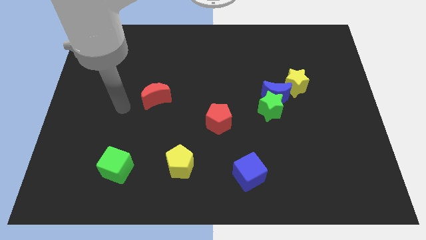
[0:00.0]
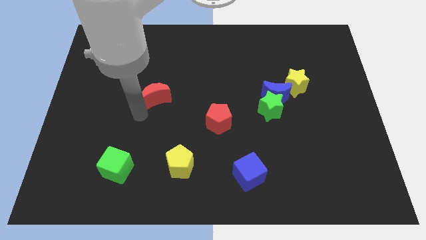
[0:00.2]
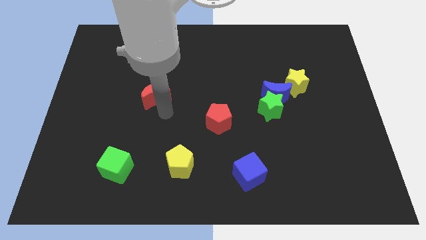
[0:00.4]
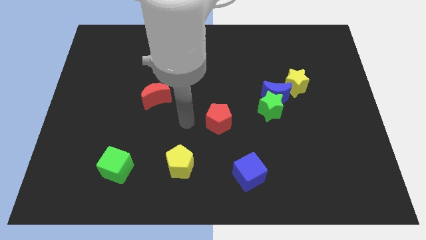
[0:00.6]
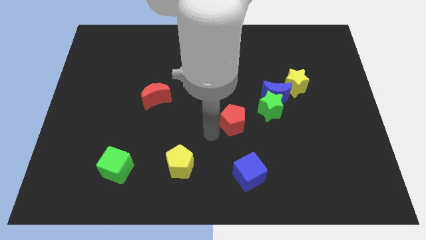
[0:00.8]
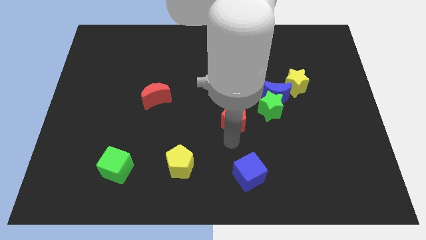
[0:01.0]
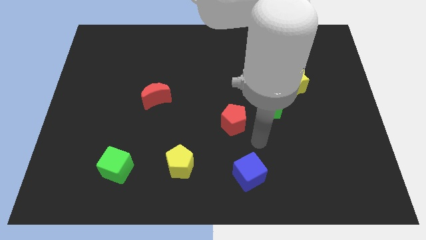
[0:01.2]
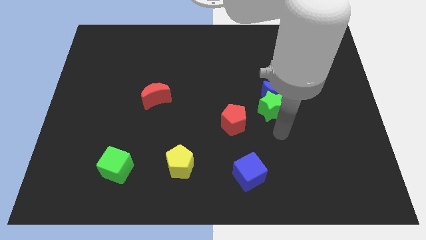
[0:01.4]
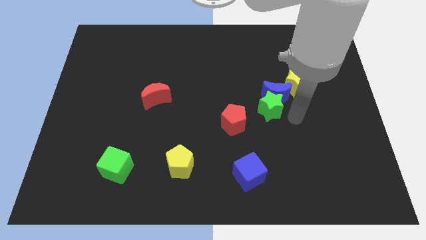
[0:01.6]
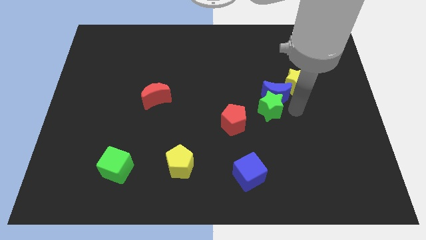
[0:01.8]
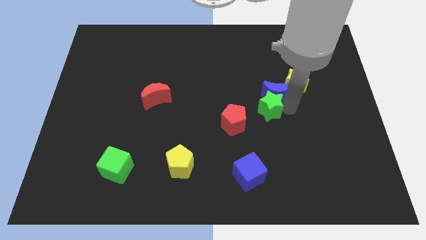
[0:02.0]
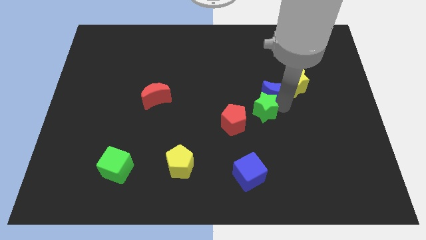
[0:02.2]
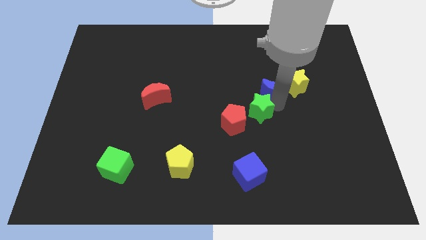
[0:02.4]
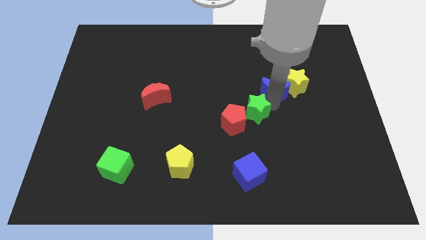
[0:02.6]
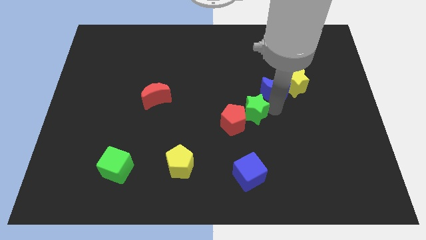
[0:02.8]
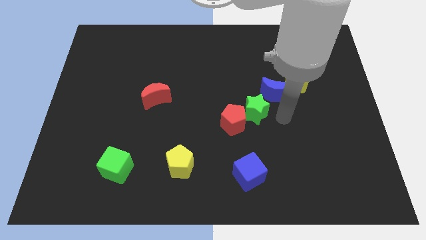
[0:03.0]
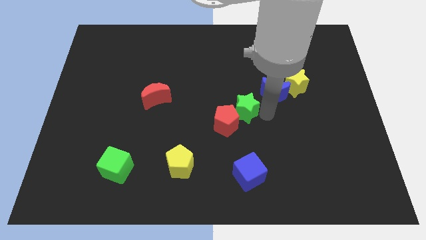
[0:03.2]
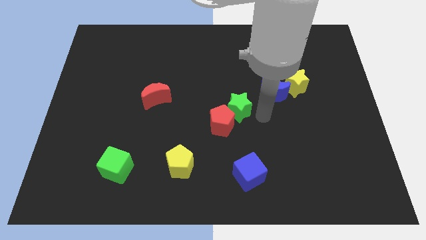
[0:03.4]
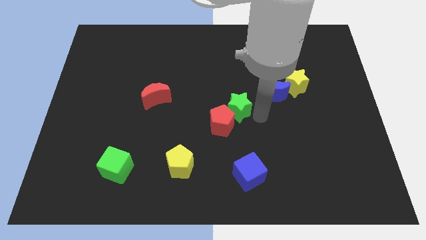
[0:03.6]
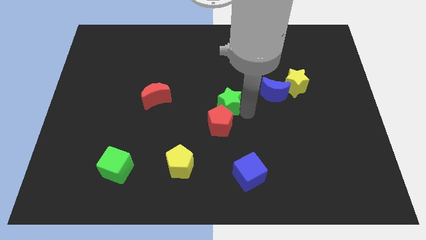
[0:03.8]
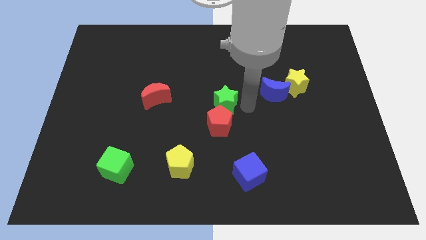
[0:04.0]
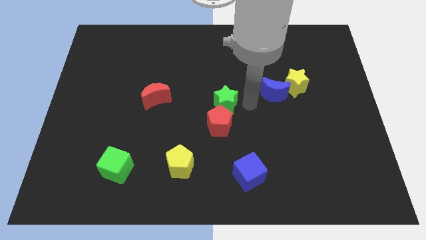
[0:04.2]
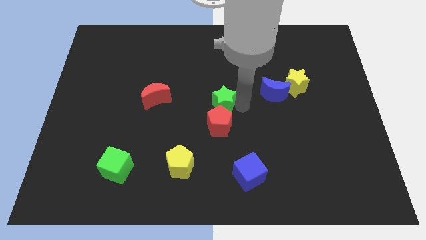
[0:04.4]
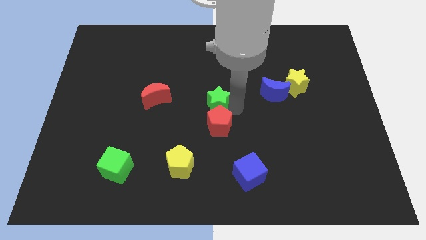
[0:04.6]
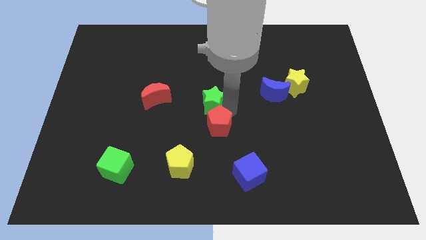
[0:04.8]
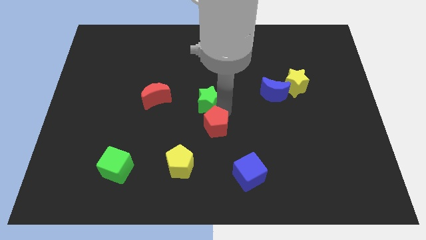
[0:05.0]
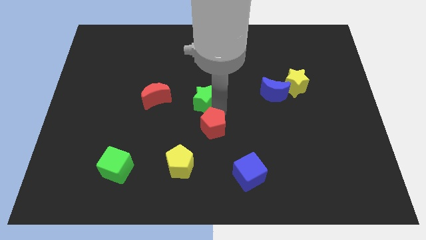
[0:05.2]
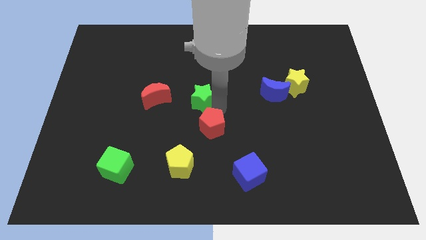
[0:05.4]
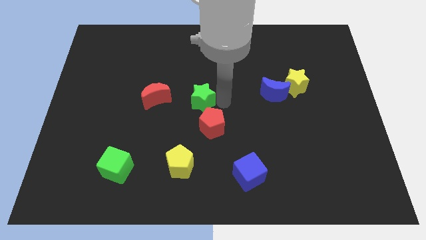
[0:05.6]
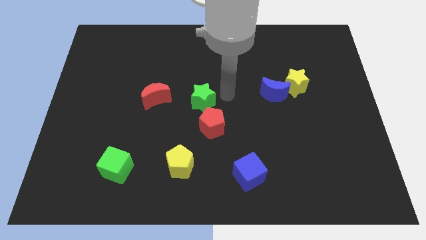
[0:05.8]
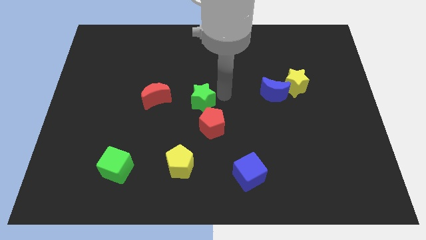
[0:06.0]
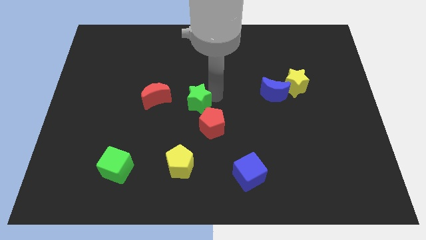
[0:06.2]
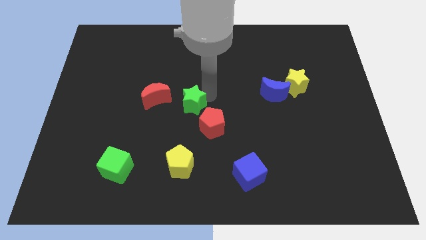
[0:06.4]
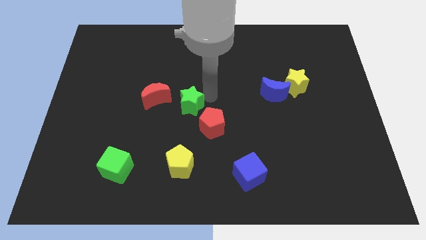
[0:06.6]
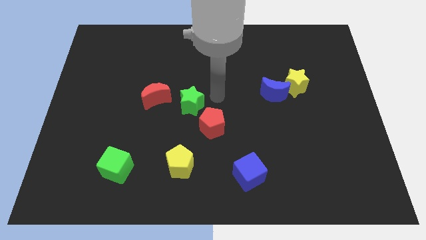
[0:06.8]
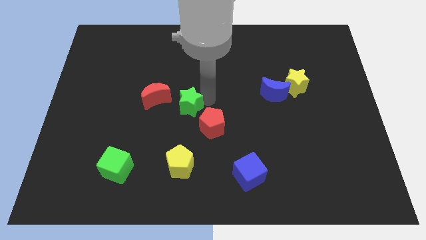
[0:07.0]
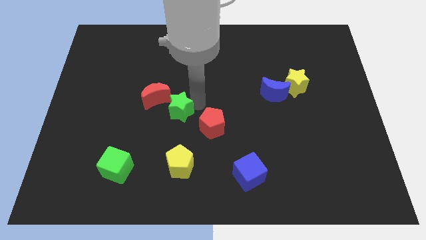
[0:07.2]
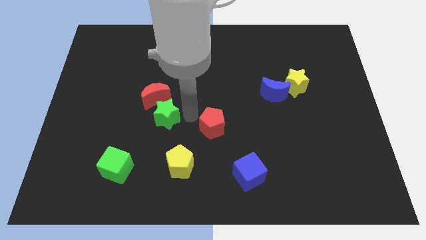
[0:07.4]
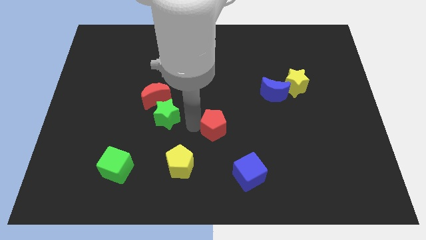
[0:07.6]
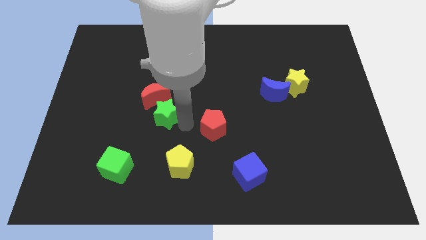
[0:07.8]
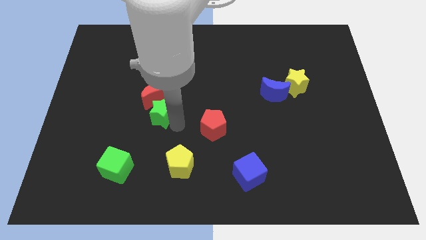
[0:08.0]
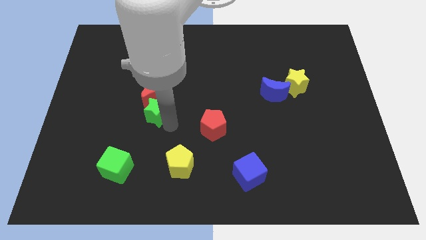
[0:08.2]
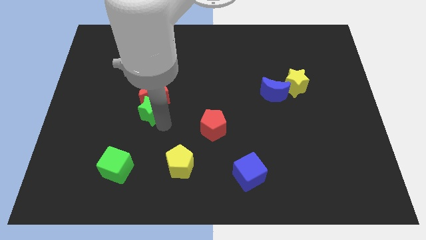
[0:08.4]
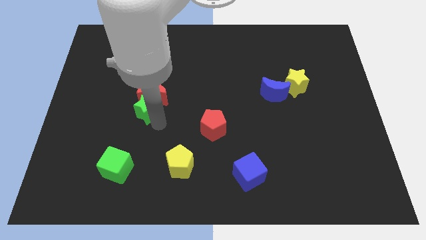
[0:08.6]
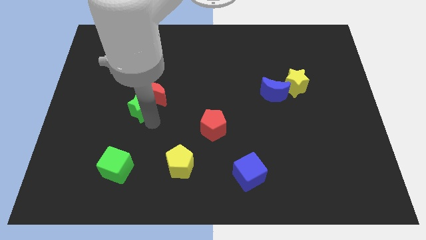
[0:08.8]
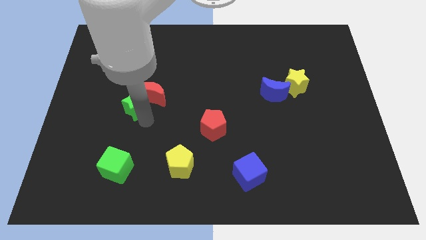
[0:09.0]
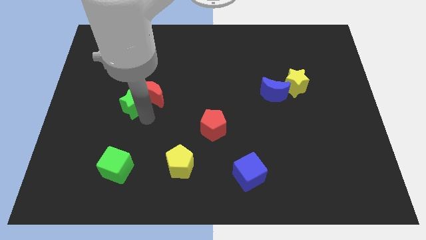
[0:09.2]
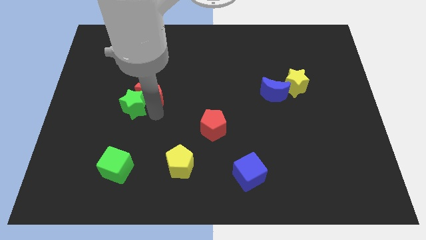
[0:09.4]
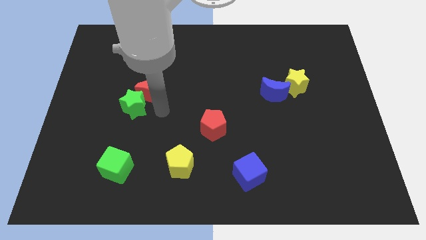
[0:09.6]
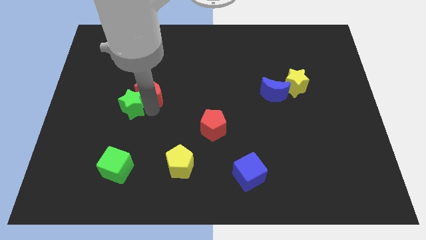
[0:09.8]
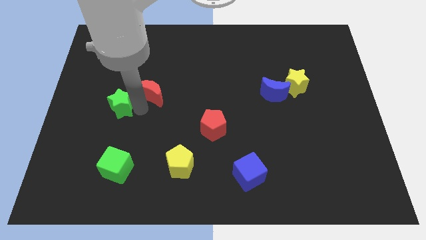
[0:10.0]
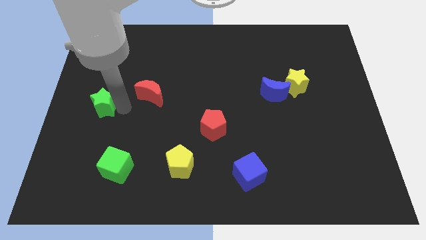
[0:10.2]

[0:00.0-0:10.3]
push the green star to the center left
